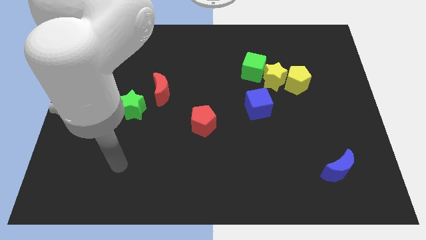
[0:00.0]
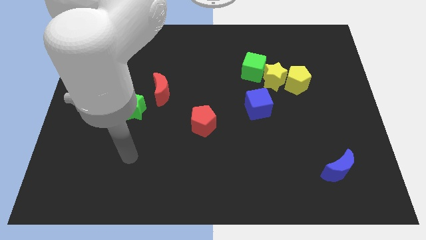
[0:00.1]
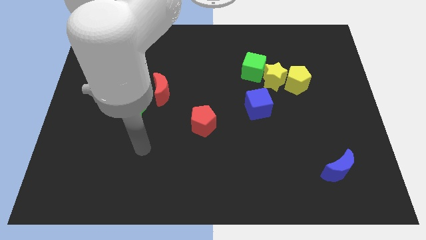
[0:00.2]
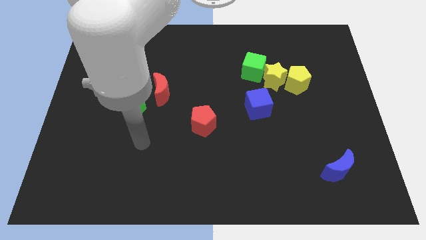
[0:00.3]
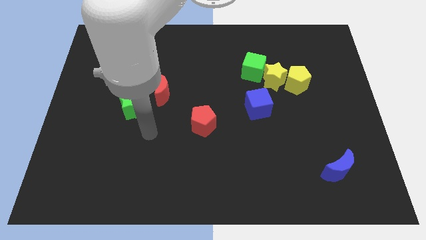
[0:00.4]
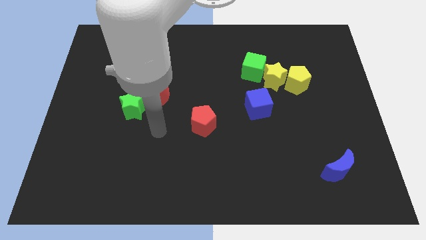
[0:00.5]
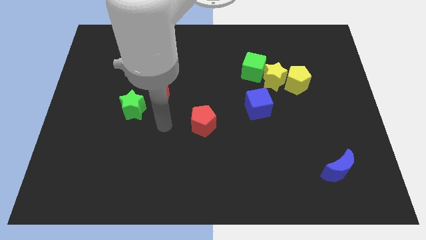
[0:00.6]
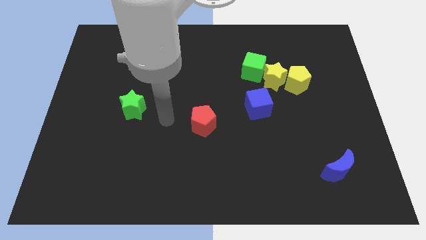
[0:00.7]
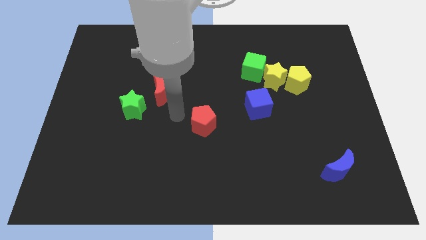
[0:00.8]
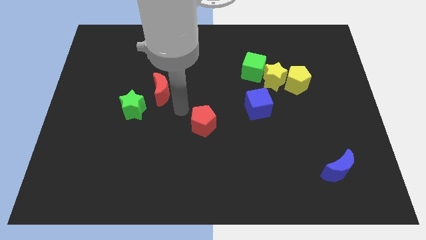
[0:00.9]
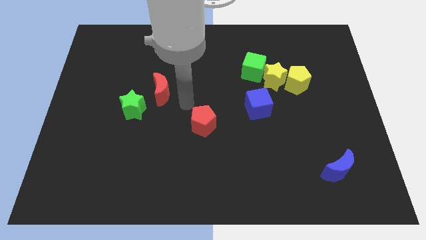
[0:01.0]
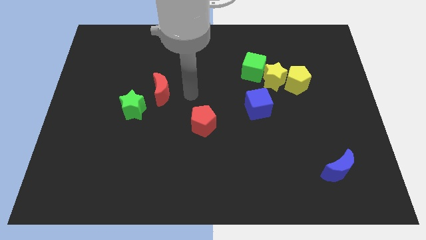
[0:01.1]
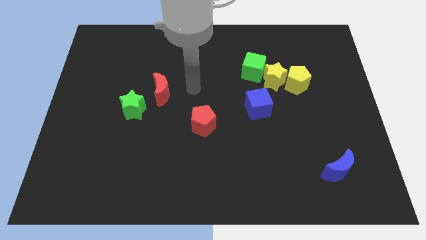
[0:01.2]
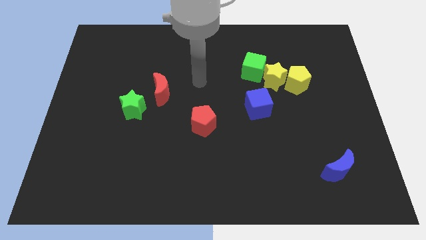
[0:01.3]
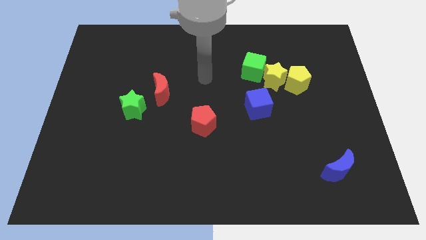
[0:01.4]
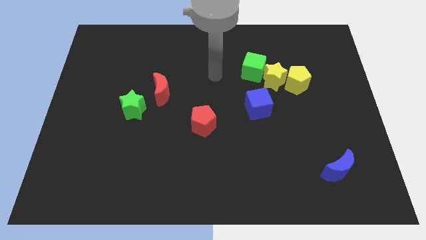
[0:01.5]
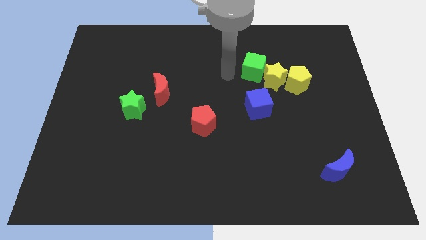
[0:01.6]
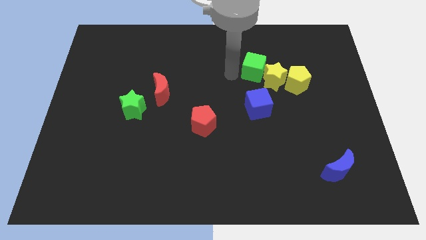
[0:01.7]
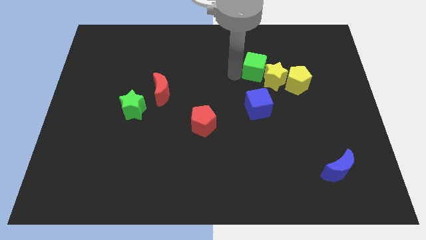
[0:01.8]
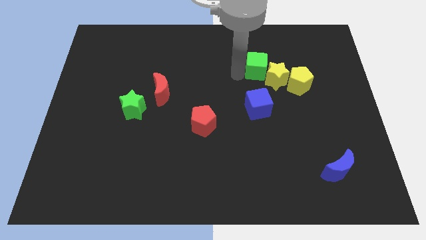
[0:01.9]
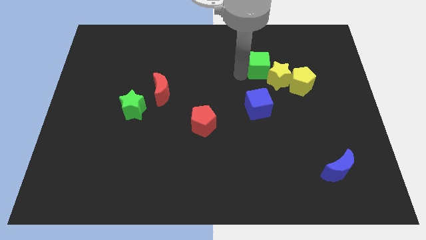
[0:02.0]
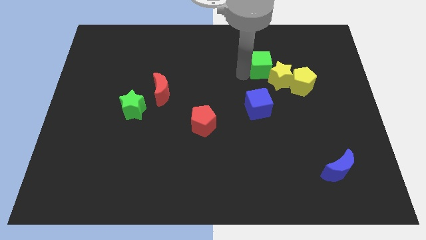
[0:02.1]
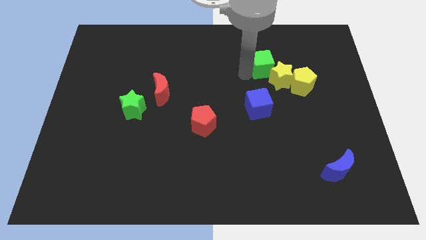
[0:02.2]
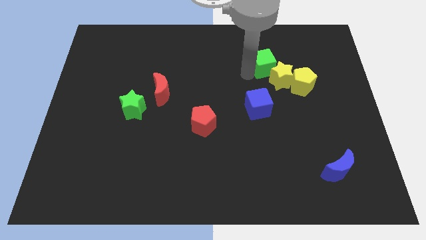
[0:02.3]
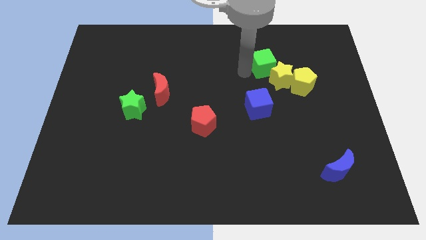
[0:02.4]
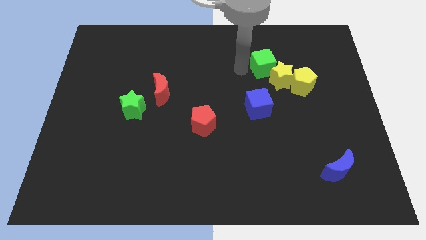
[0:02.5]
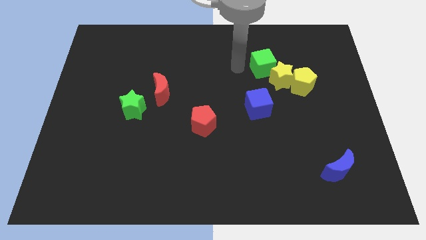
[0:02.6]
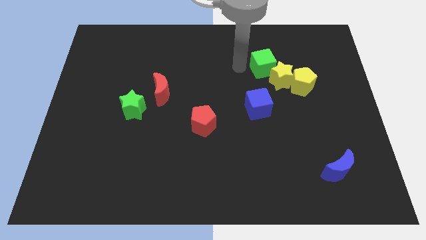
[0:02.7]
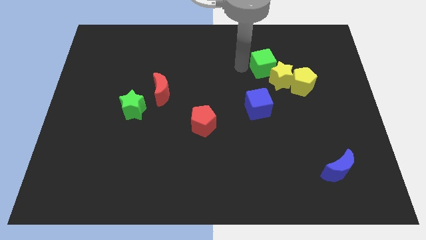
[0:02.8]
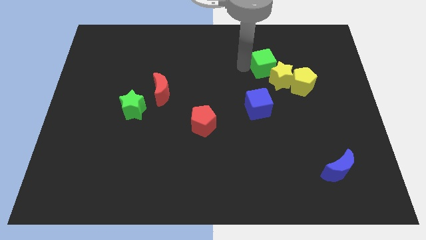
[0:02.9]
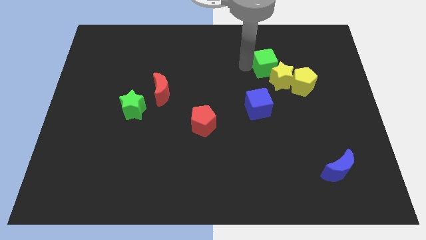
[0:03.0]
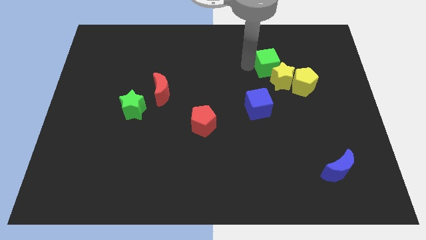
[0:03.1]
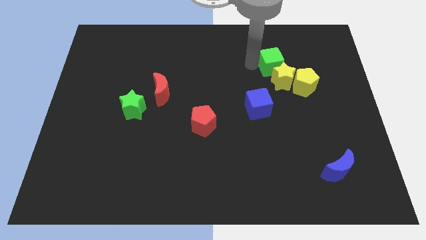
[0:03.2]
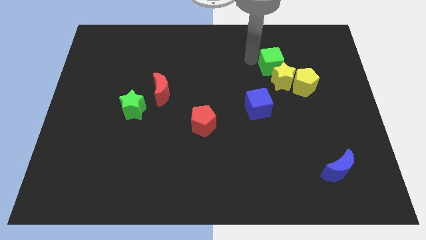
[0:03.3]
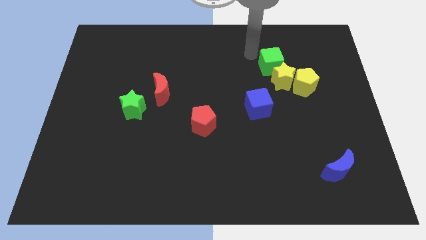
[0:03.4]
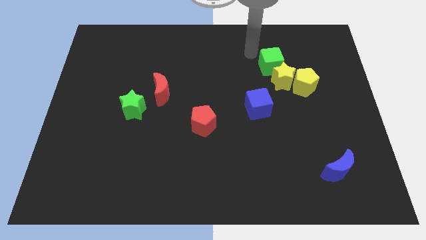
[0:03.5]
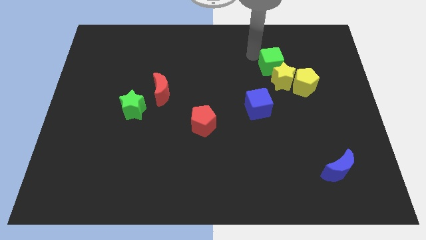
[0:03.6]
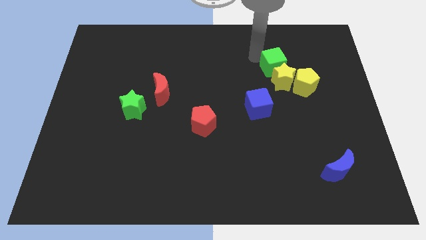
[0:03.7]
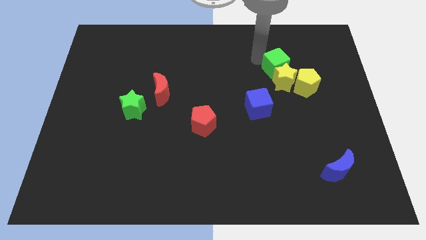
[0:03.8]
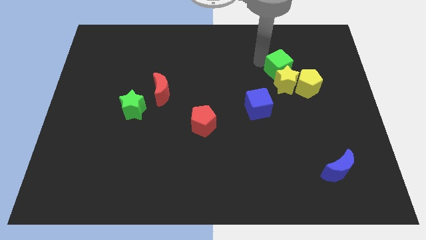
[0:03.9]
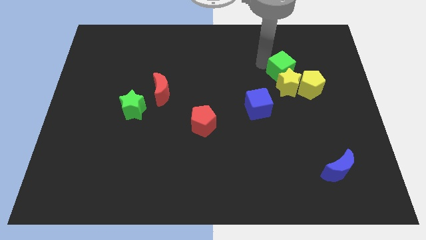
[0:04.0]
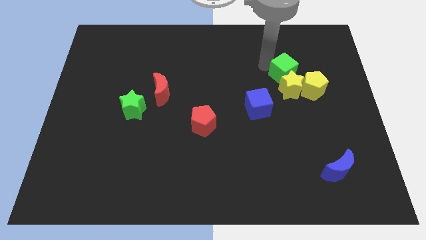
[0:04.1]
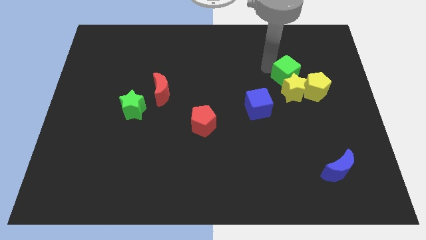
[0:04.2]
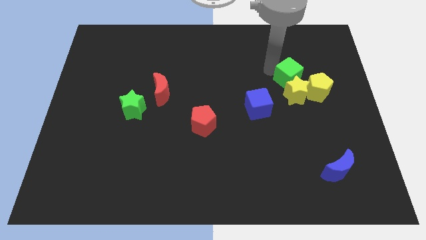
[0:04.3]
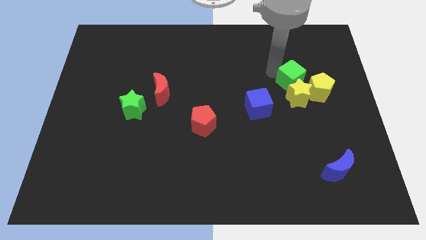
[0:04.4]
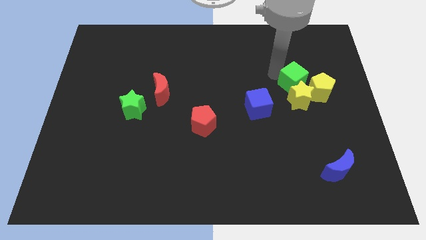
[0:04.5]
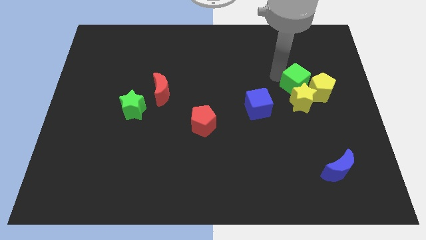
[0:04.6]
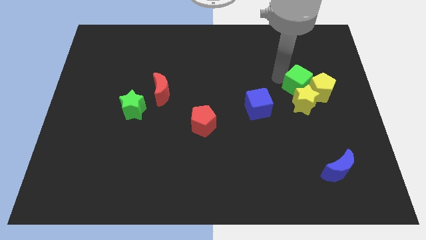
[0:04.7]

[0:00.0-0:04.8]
push the green cube to the yellow pentagon

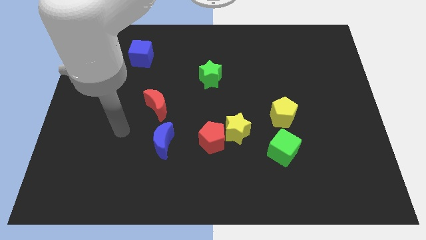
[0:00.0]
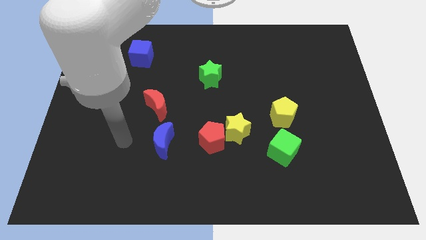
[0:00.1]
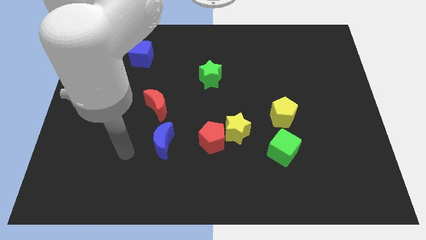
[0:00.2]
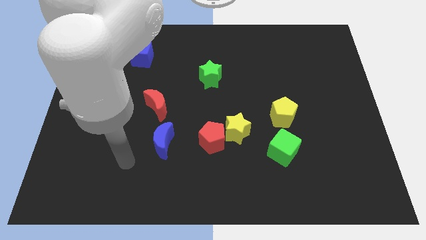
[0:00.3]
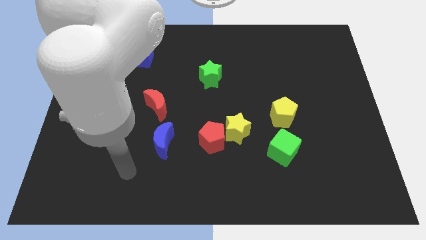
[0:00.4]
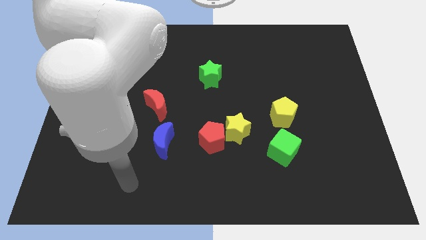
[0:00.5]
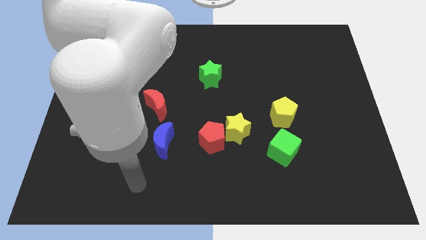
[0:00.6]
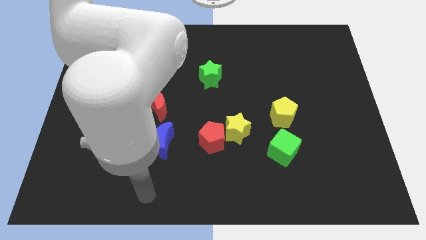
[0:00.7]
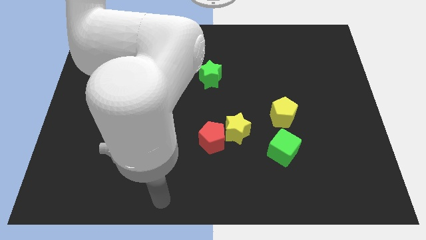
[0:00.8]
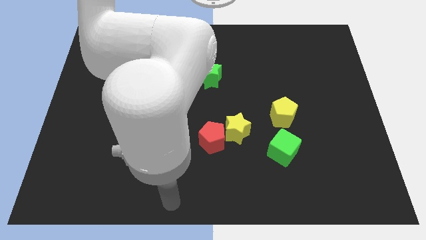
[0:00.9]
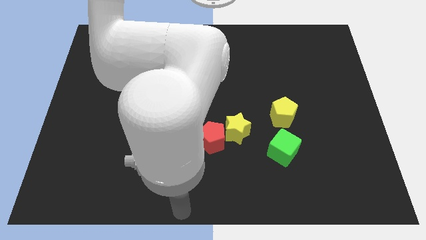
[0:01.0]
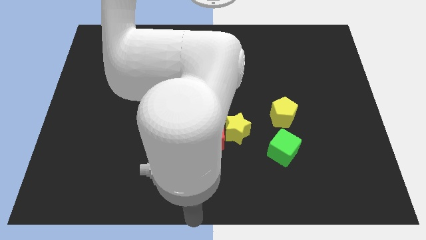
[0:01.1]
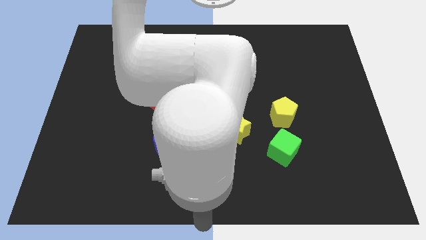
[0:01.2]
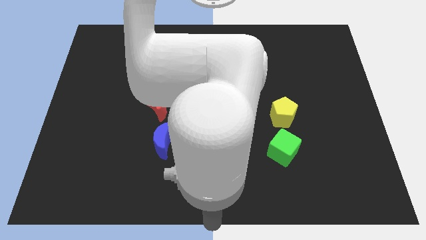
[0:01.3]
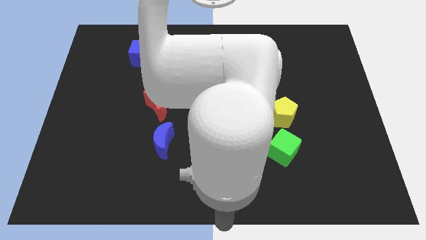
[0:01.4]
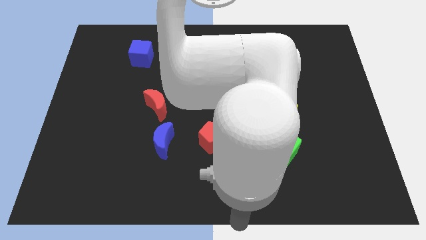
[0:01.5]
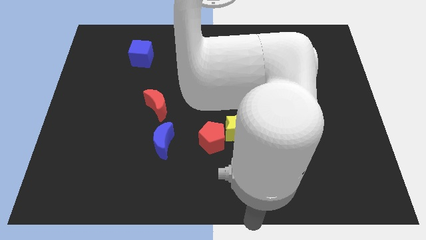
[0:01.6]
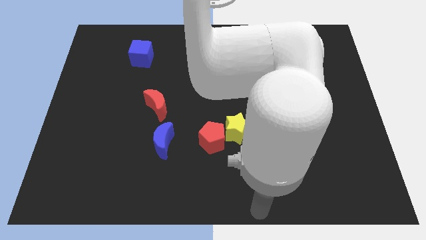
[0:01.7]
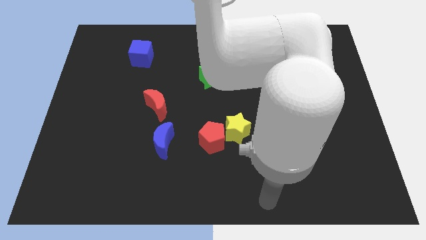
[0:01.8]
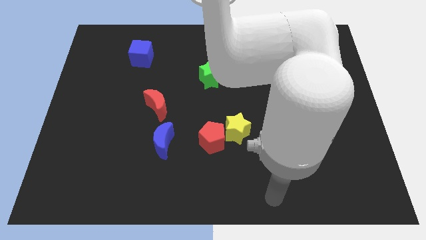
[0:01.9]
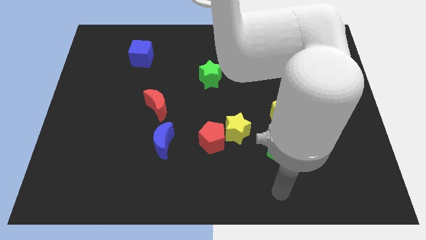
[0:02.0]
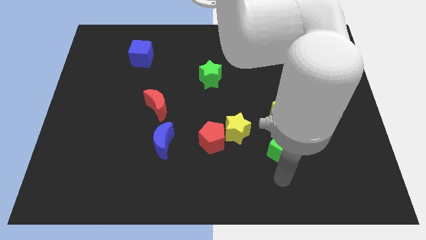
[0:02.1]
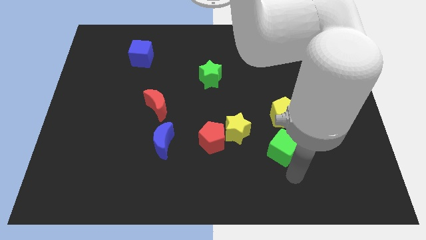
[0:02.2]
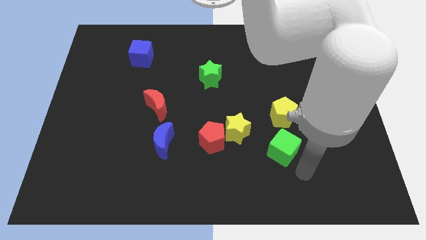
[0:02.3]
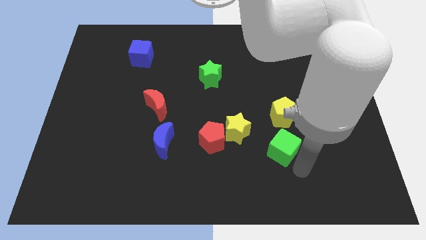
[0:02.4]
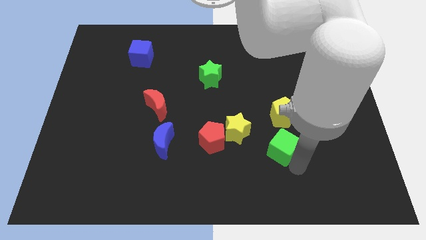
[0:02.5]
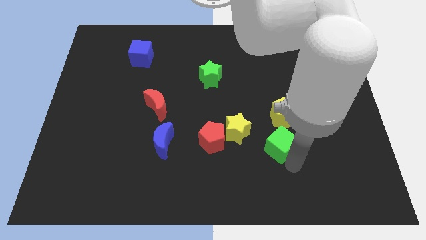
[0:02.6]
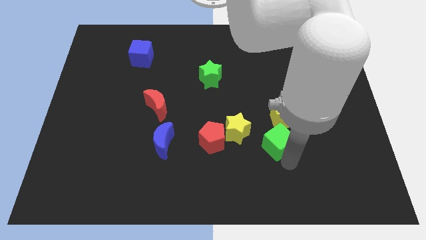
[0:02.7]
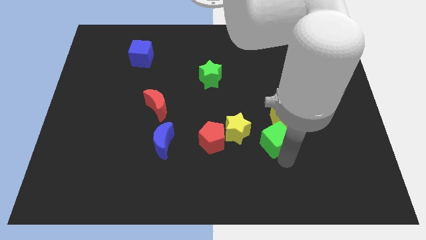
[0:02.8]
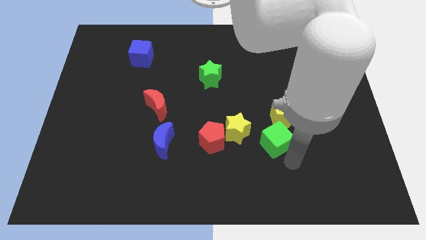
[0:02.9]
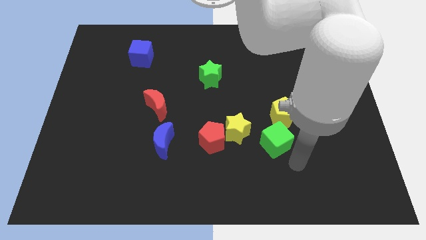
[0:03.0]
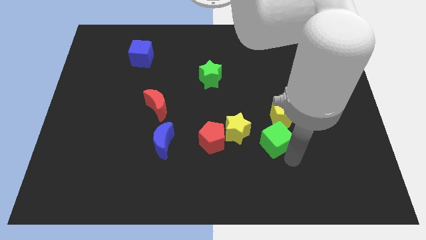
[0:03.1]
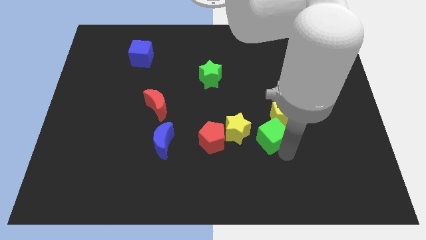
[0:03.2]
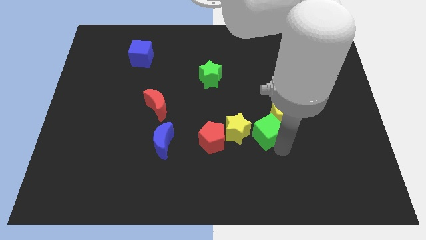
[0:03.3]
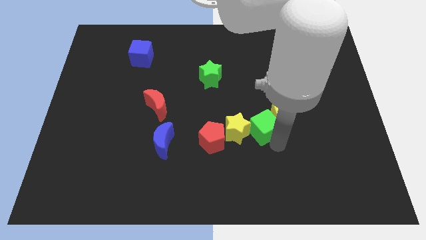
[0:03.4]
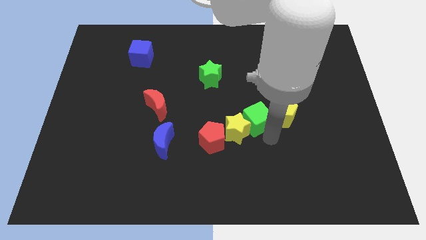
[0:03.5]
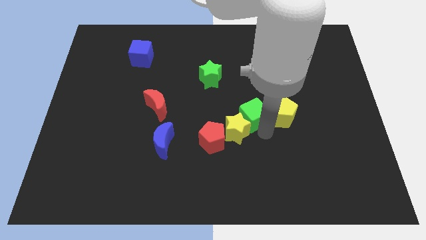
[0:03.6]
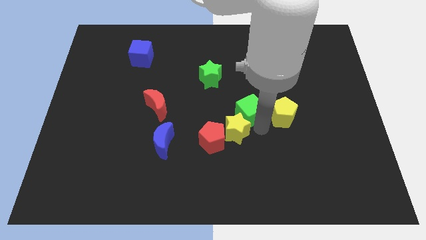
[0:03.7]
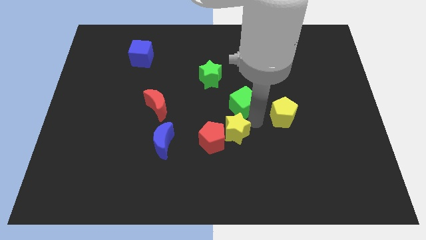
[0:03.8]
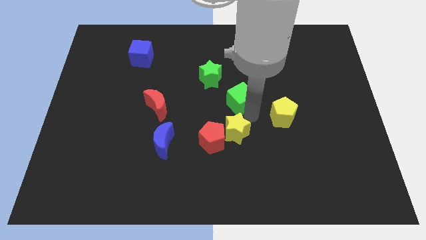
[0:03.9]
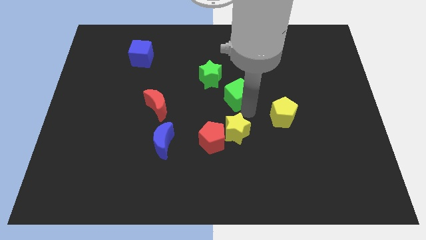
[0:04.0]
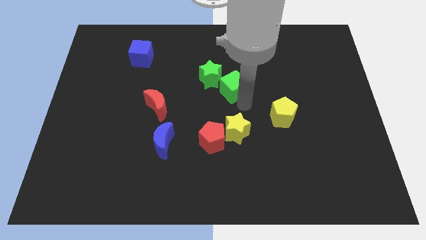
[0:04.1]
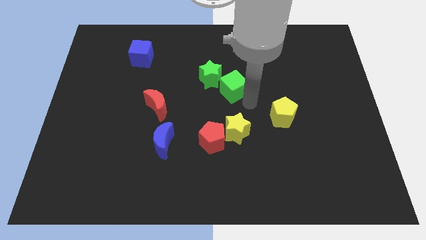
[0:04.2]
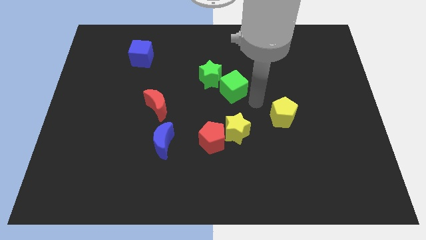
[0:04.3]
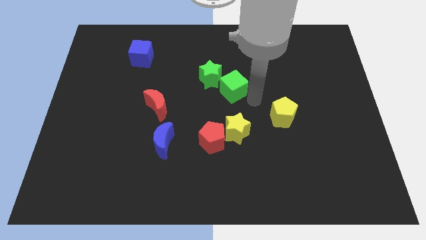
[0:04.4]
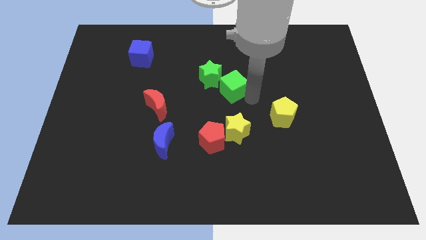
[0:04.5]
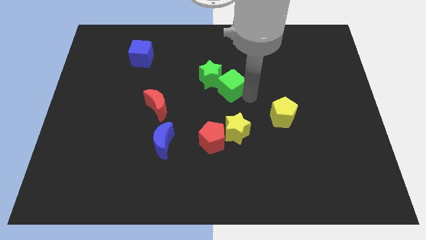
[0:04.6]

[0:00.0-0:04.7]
slide the green cube next to the green star
